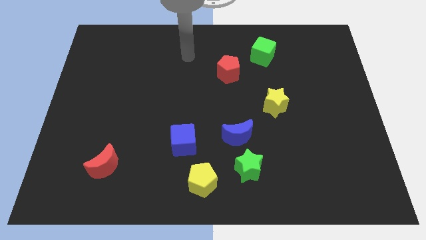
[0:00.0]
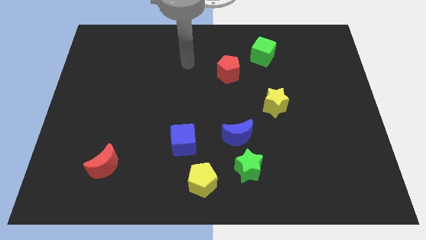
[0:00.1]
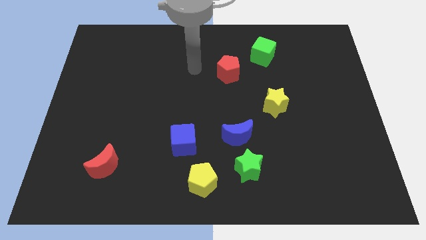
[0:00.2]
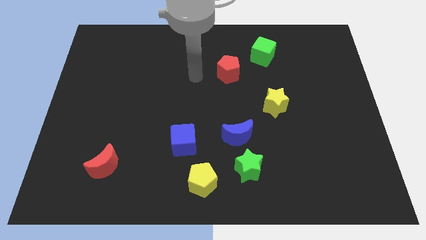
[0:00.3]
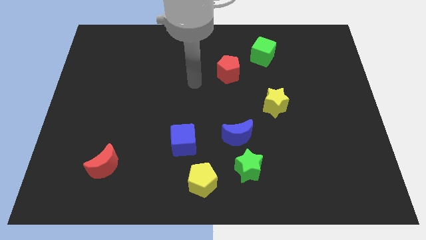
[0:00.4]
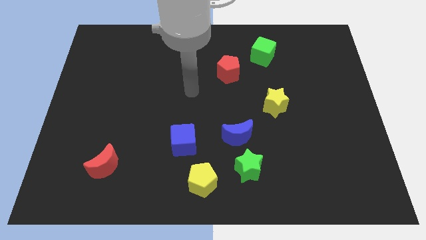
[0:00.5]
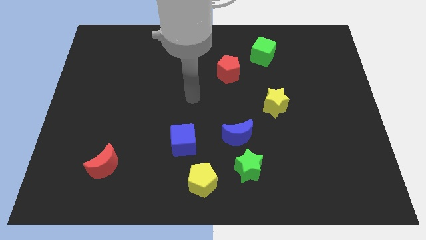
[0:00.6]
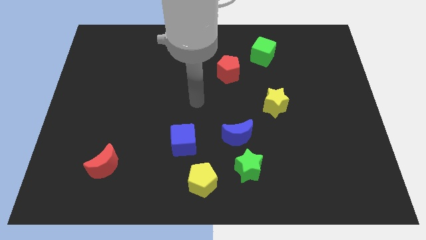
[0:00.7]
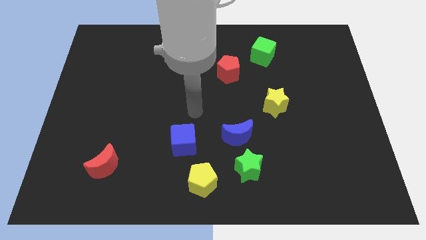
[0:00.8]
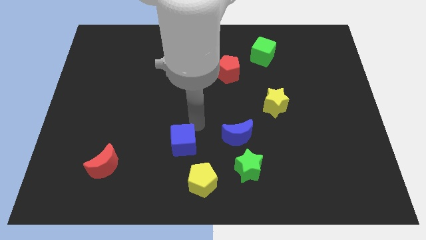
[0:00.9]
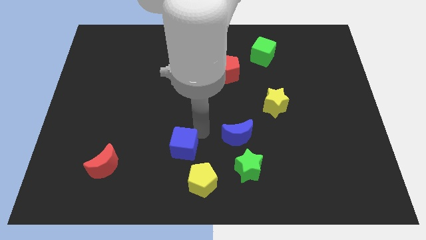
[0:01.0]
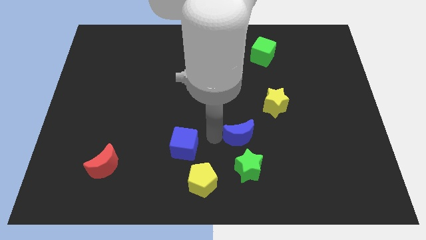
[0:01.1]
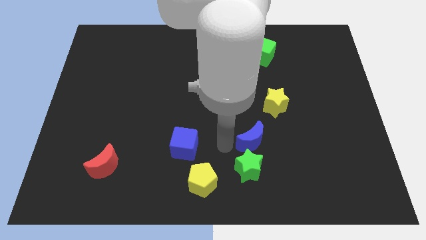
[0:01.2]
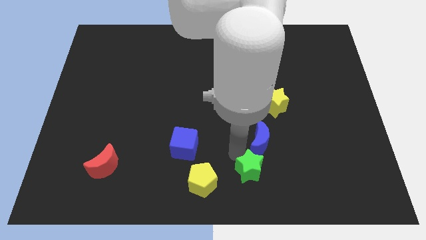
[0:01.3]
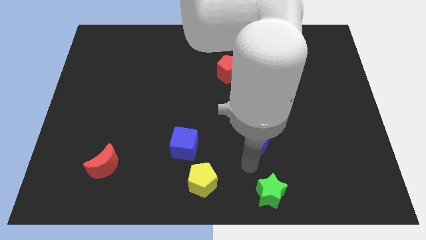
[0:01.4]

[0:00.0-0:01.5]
move the blue moon away from the green star

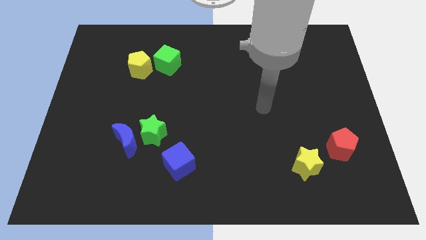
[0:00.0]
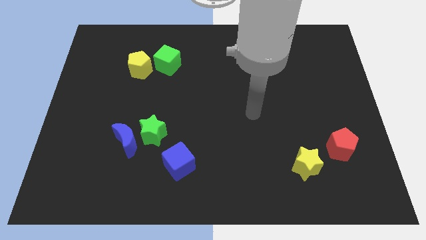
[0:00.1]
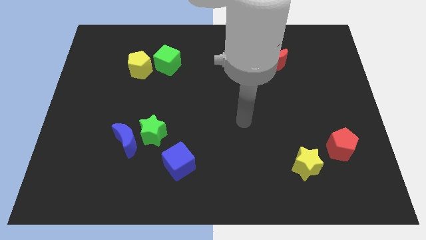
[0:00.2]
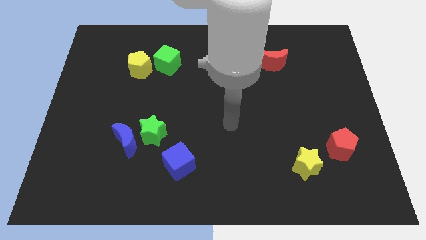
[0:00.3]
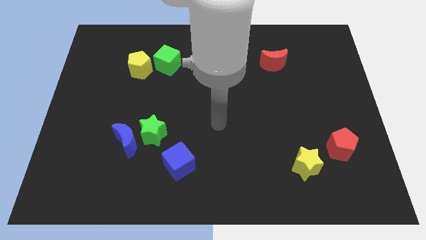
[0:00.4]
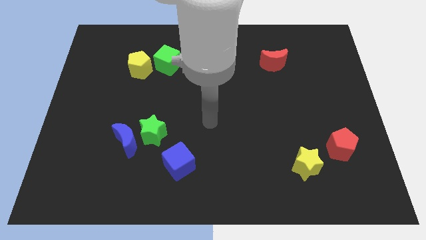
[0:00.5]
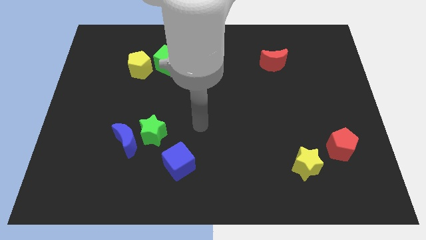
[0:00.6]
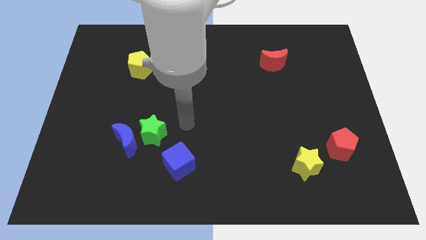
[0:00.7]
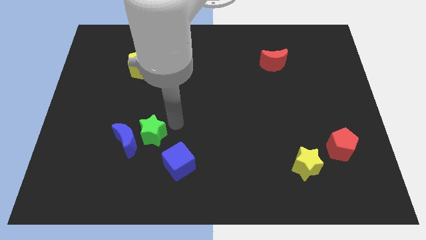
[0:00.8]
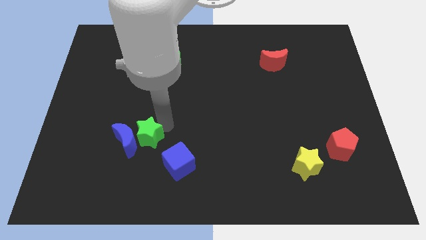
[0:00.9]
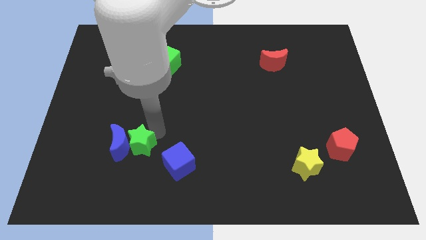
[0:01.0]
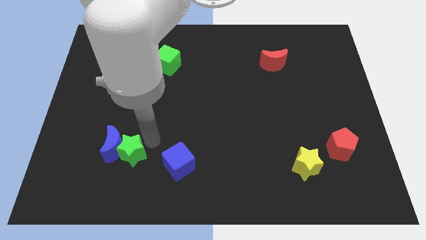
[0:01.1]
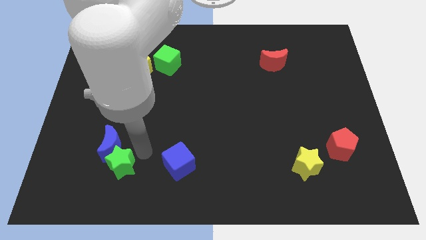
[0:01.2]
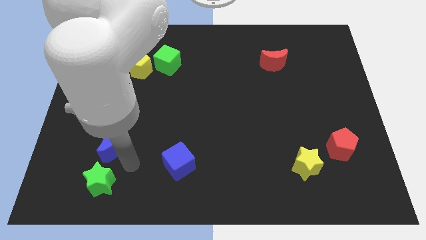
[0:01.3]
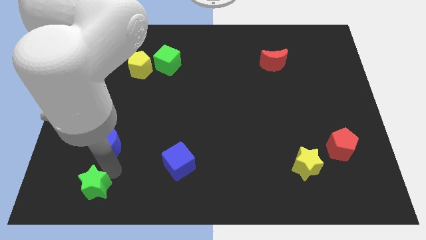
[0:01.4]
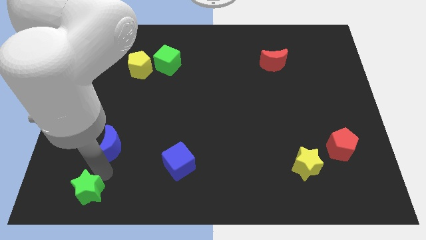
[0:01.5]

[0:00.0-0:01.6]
pull the blue moon apart from the green star

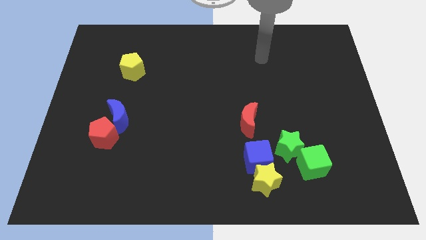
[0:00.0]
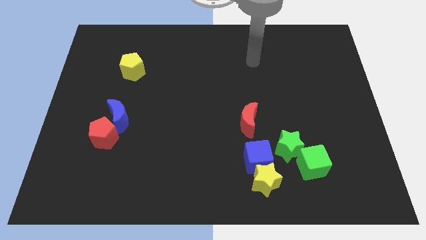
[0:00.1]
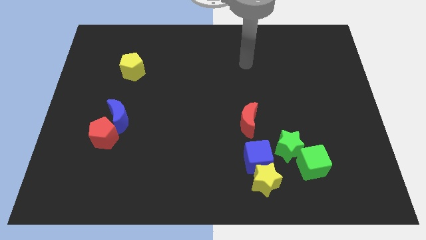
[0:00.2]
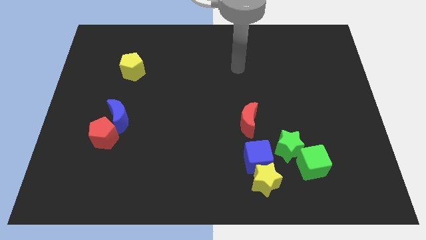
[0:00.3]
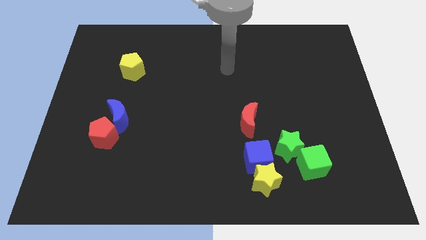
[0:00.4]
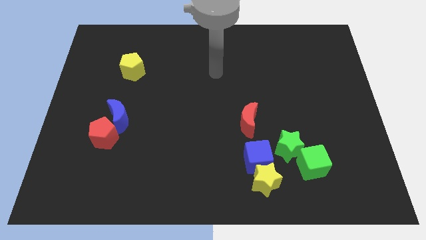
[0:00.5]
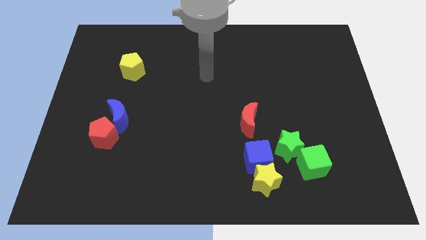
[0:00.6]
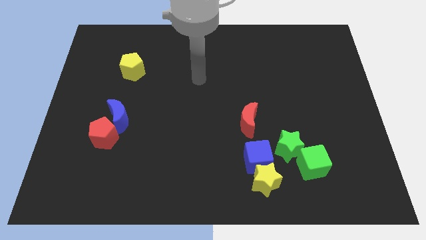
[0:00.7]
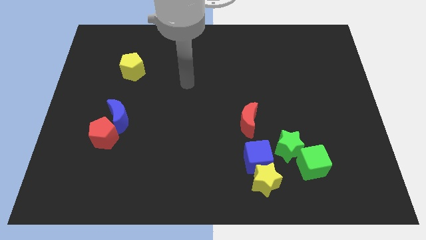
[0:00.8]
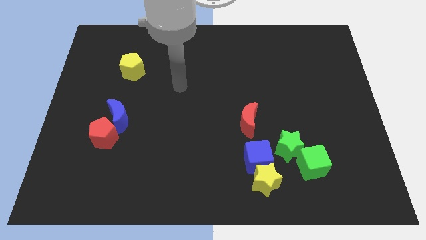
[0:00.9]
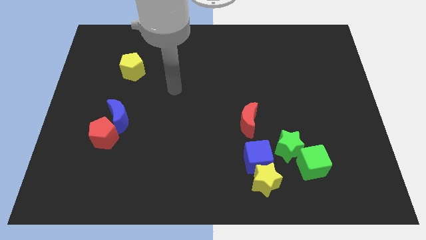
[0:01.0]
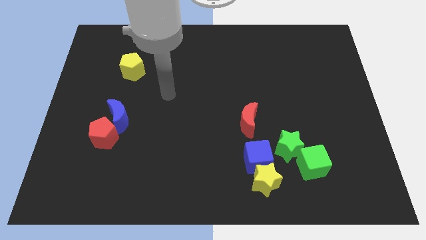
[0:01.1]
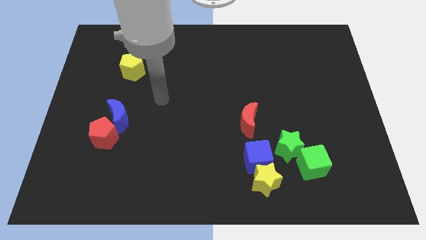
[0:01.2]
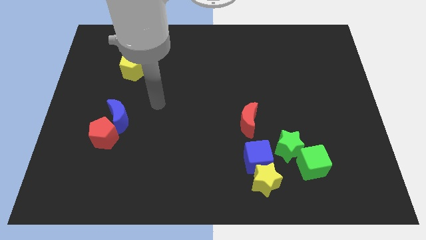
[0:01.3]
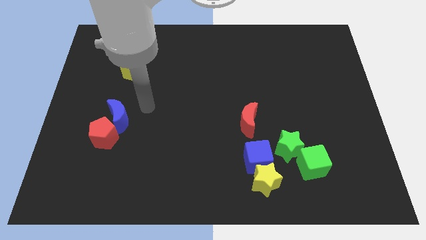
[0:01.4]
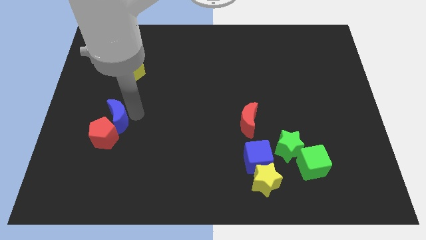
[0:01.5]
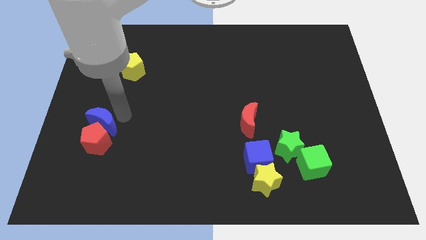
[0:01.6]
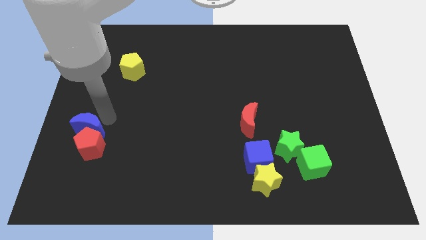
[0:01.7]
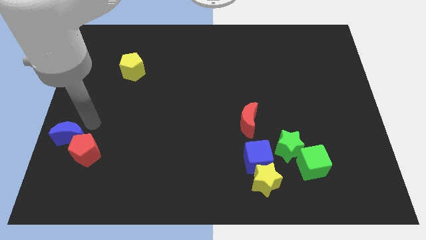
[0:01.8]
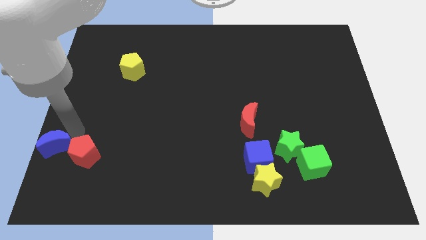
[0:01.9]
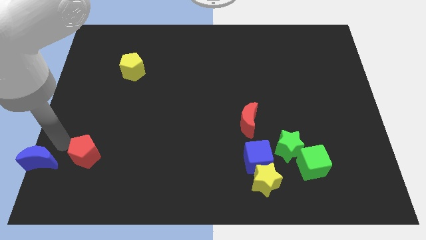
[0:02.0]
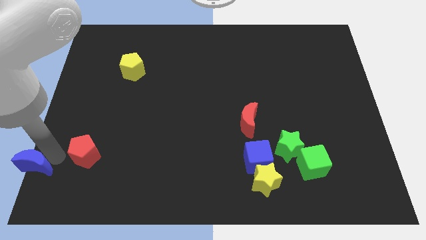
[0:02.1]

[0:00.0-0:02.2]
pull the red pentagon apart from the blue moon

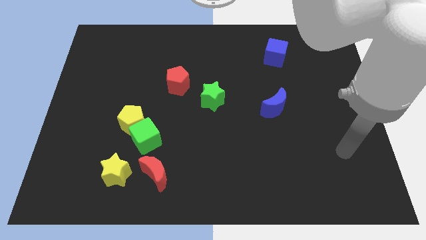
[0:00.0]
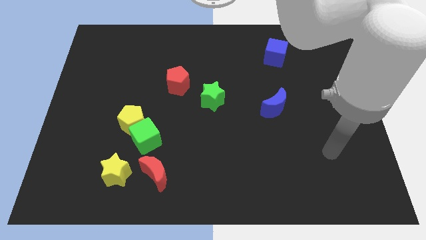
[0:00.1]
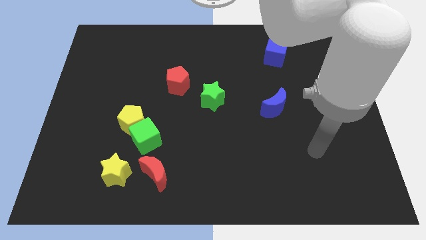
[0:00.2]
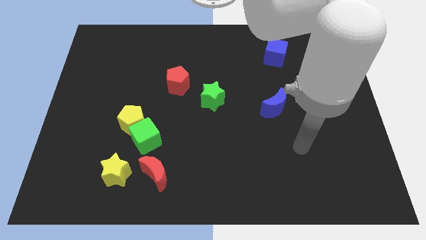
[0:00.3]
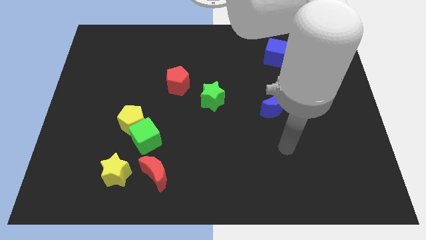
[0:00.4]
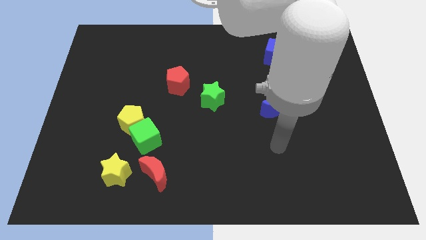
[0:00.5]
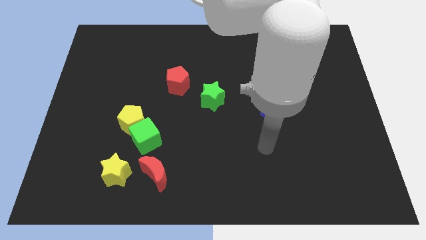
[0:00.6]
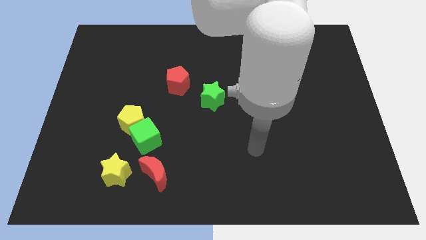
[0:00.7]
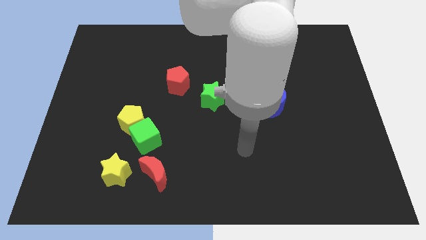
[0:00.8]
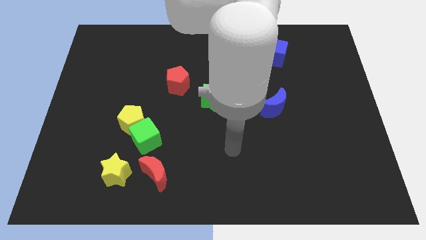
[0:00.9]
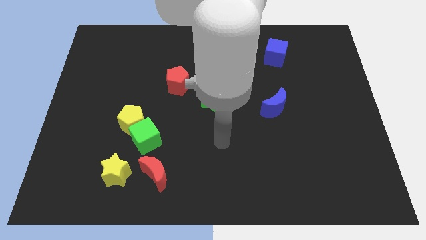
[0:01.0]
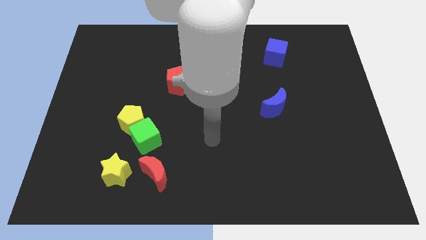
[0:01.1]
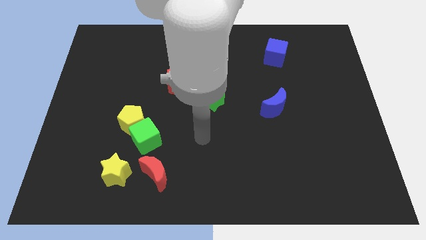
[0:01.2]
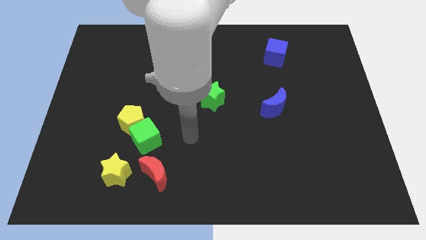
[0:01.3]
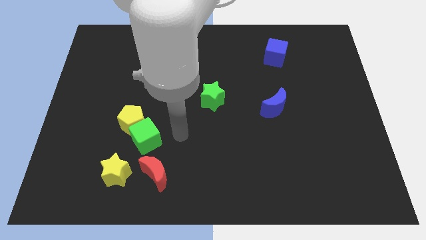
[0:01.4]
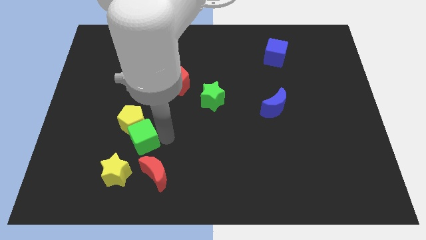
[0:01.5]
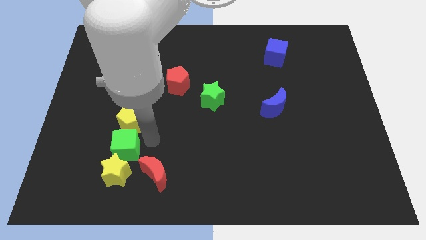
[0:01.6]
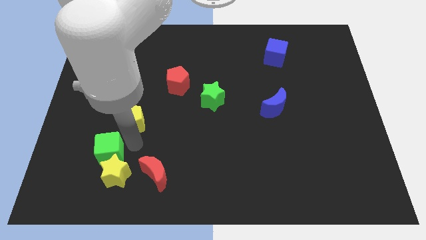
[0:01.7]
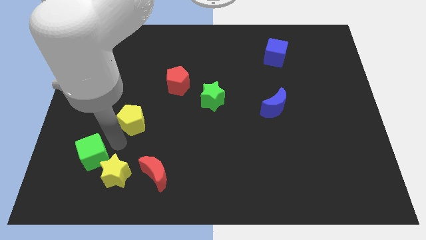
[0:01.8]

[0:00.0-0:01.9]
pull the yellow pentagon apart from the green cube

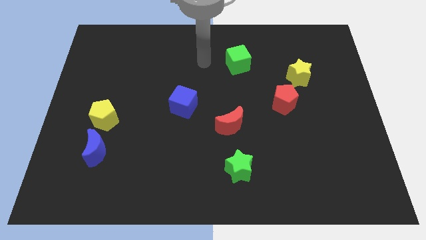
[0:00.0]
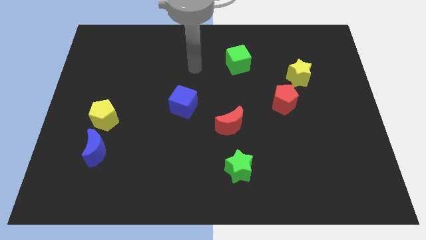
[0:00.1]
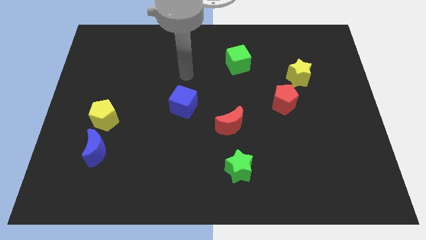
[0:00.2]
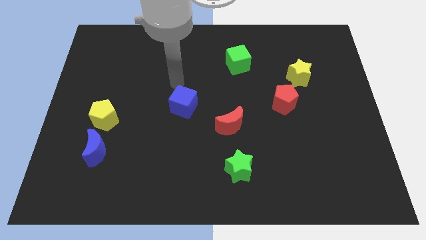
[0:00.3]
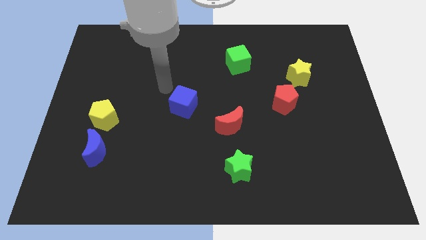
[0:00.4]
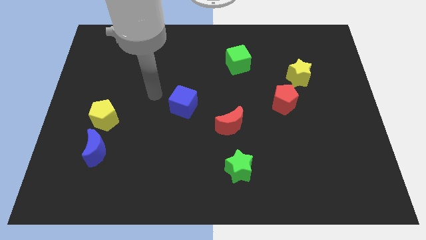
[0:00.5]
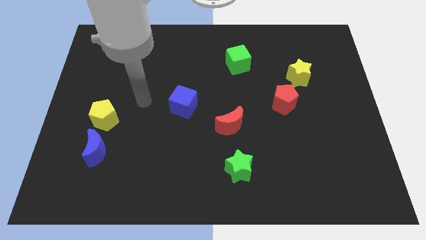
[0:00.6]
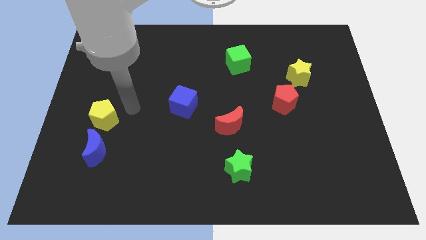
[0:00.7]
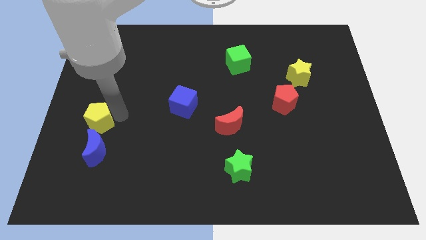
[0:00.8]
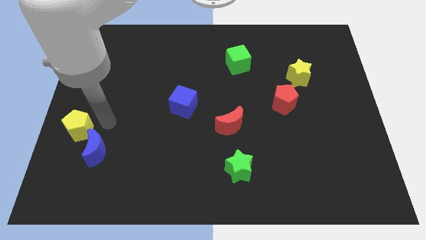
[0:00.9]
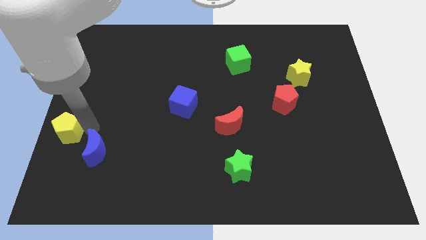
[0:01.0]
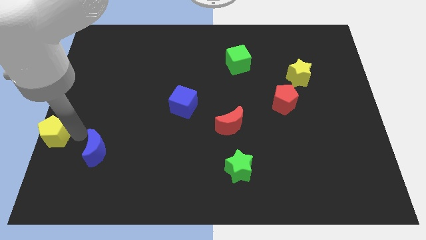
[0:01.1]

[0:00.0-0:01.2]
pull the blue moon apart from the yellow pentagon

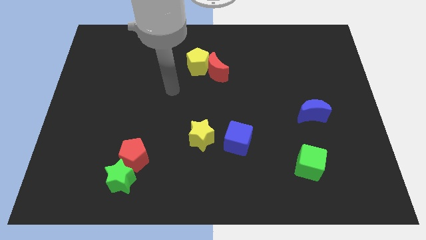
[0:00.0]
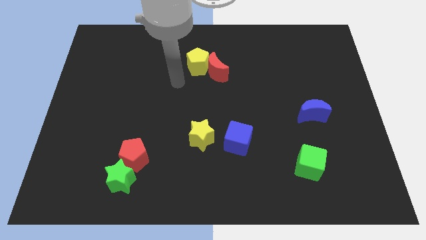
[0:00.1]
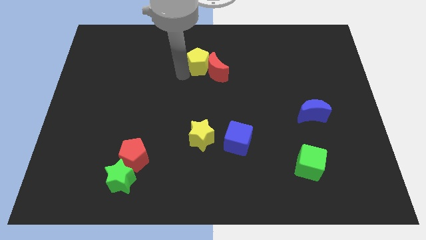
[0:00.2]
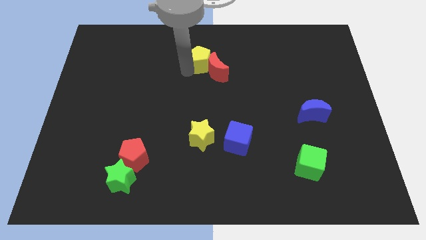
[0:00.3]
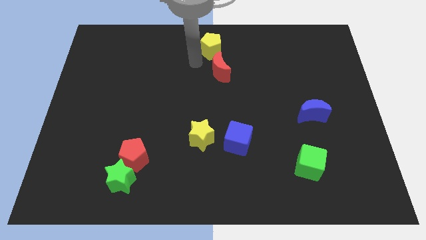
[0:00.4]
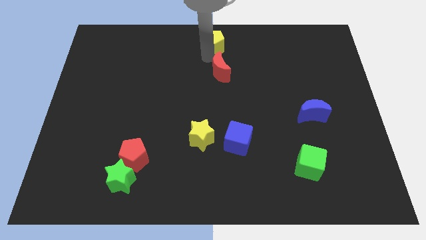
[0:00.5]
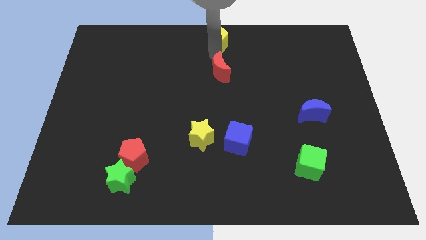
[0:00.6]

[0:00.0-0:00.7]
pull the red moon apart from the yellow pentagon

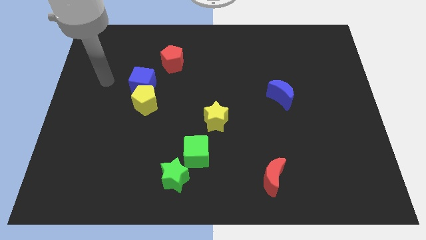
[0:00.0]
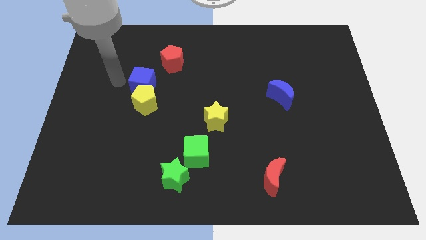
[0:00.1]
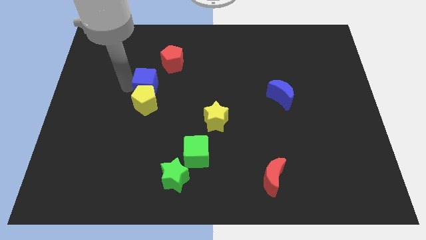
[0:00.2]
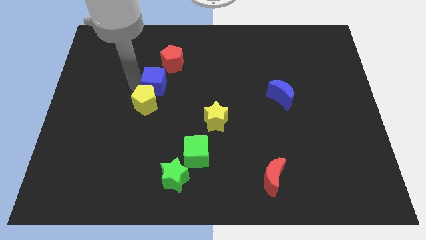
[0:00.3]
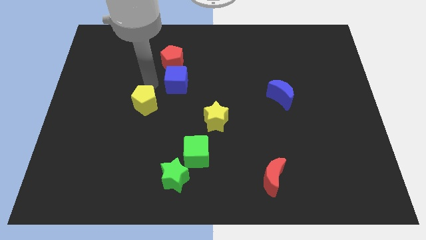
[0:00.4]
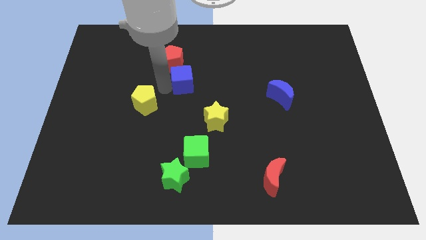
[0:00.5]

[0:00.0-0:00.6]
pull the yellow pentagon apart from the blue cube
